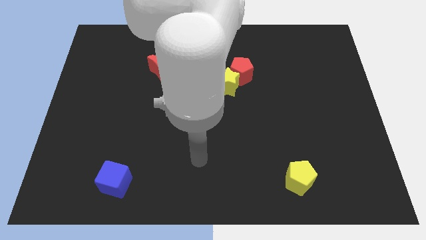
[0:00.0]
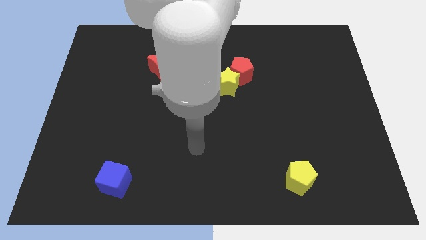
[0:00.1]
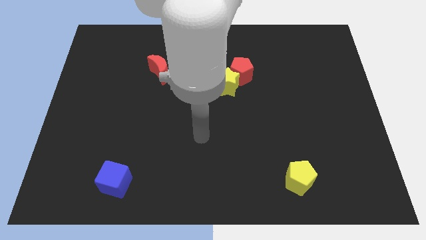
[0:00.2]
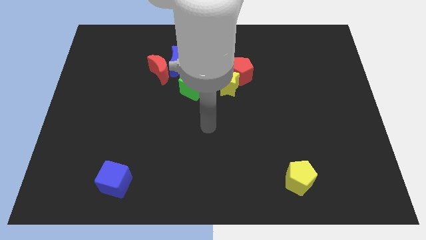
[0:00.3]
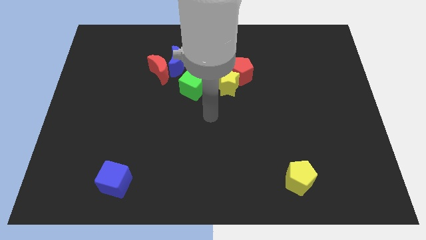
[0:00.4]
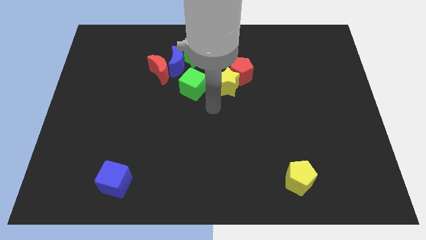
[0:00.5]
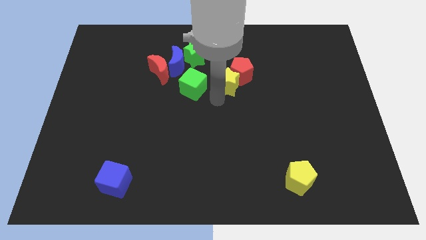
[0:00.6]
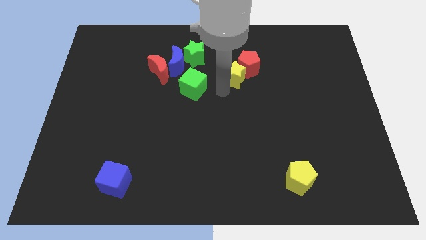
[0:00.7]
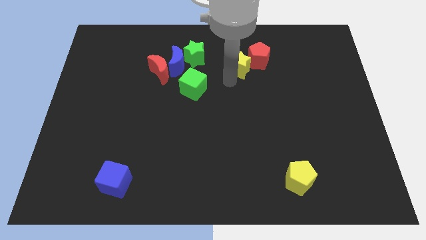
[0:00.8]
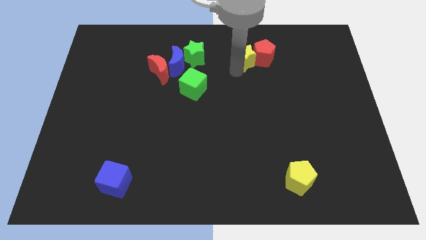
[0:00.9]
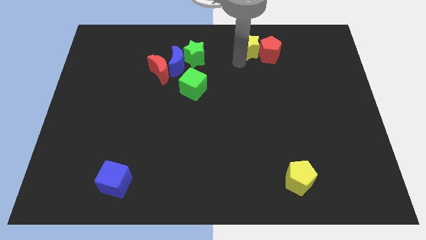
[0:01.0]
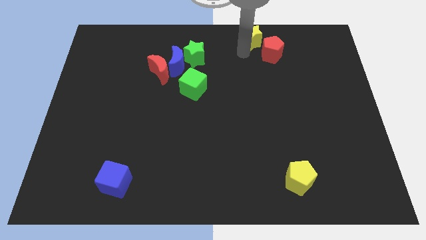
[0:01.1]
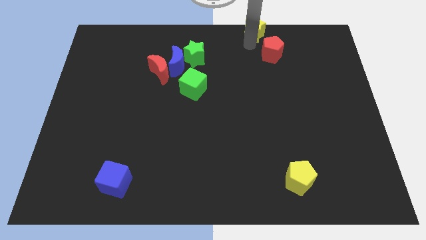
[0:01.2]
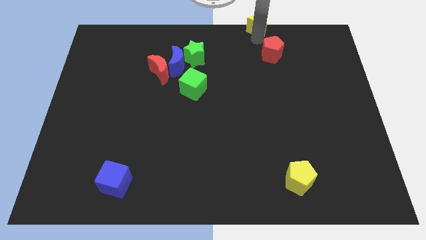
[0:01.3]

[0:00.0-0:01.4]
separate the red pentagon from the yellow star

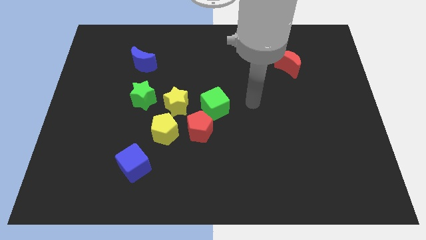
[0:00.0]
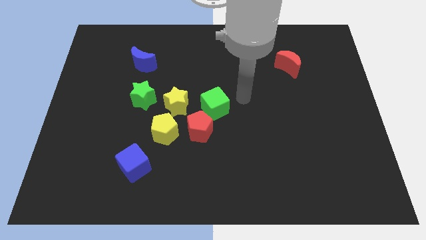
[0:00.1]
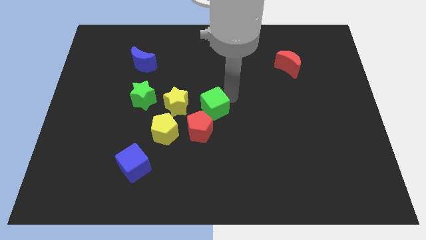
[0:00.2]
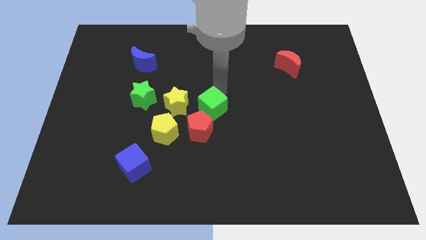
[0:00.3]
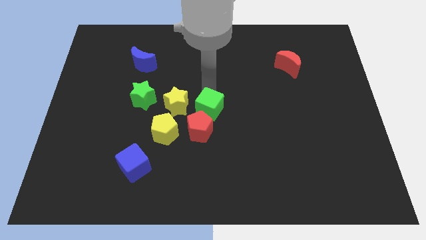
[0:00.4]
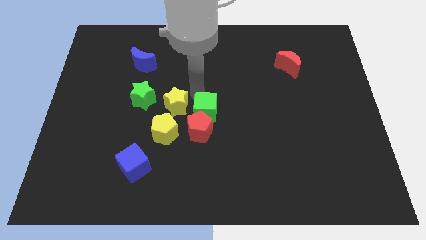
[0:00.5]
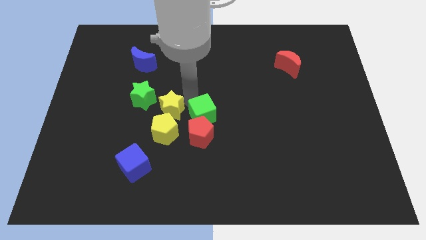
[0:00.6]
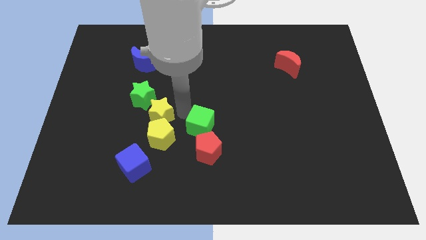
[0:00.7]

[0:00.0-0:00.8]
pull the red pentagon apart from the group of blocks

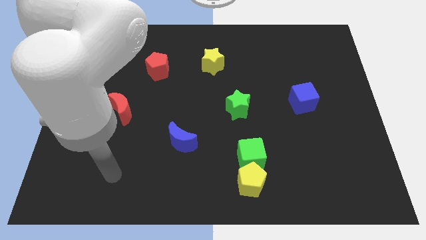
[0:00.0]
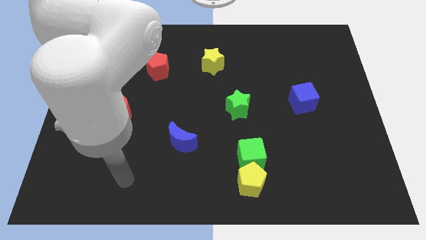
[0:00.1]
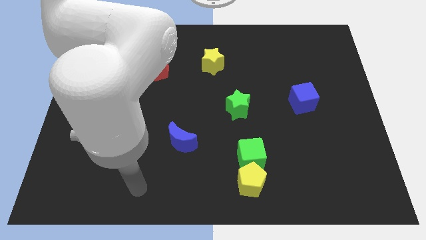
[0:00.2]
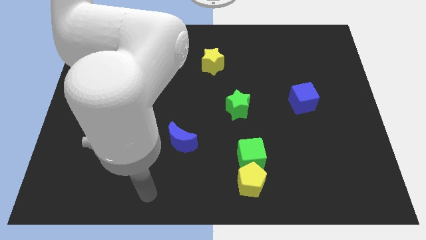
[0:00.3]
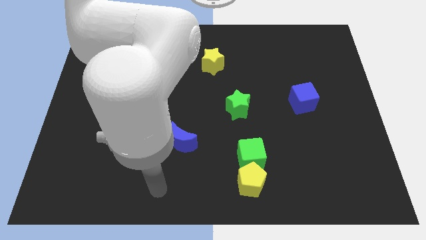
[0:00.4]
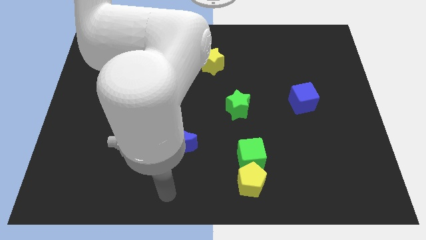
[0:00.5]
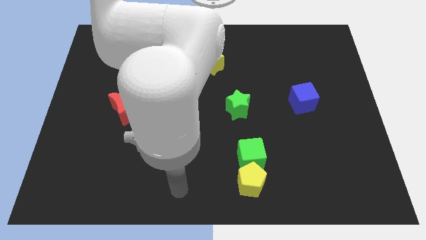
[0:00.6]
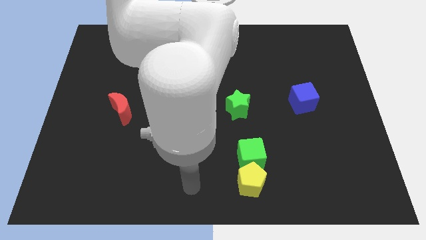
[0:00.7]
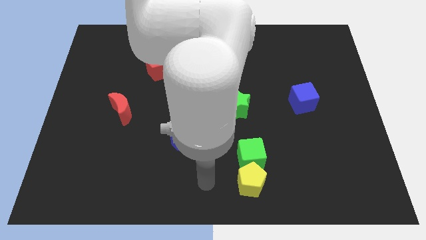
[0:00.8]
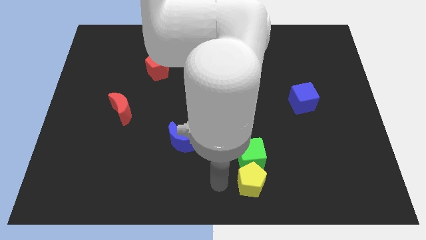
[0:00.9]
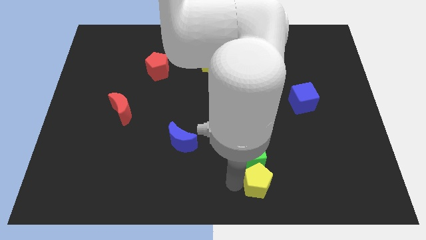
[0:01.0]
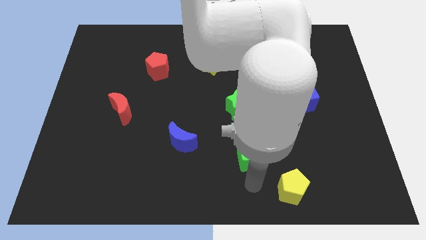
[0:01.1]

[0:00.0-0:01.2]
pull the green cube apart from the yellow pentagon

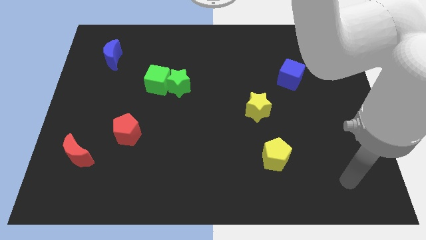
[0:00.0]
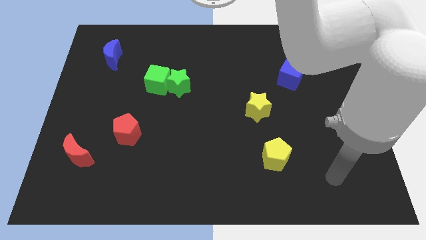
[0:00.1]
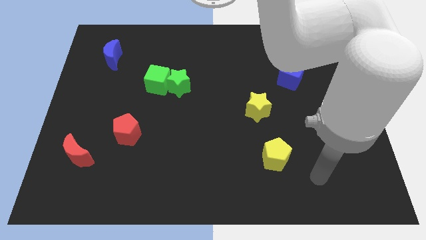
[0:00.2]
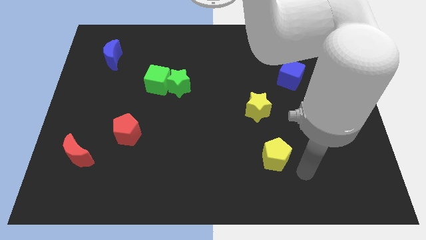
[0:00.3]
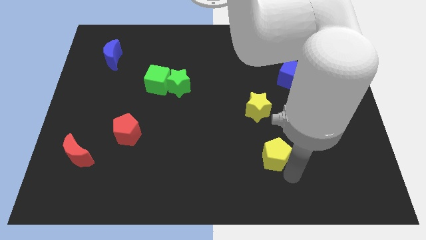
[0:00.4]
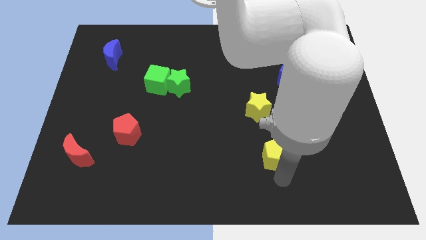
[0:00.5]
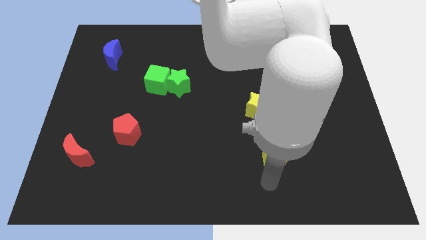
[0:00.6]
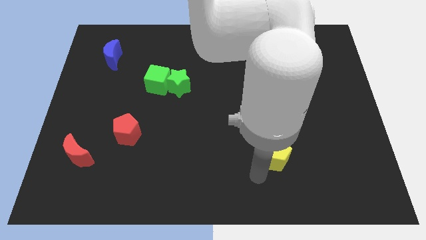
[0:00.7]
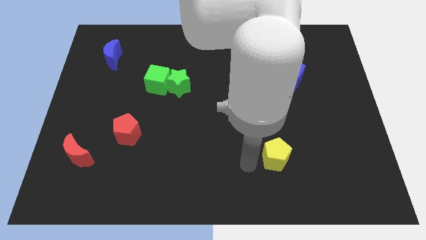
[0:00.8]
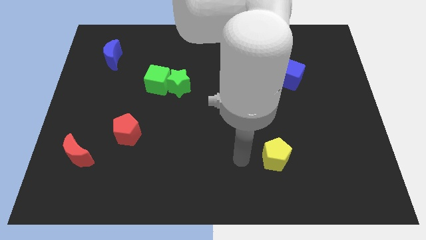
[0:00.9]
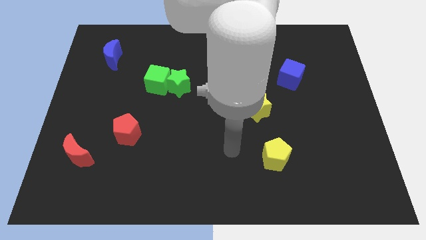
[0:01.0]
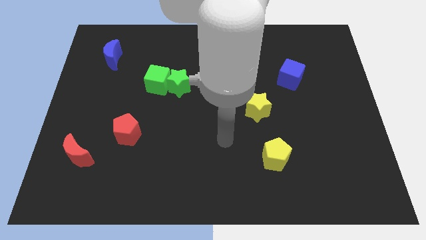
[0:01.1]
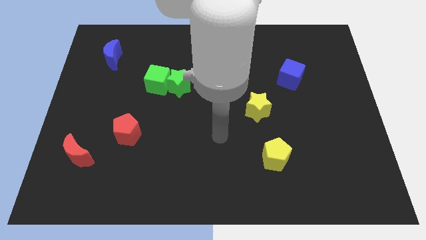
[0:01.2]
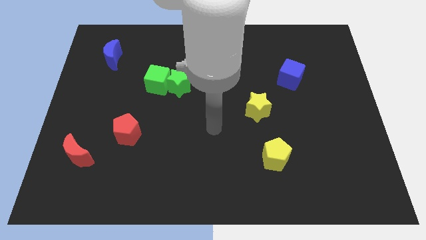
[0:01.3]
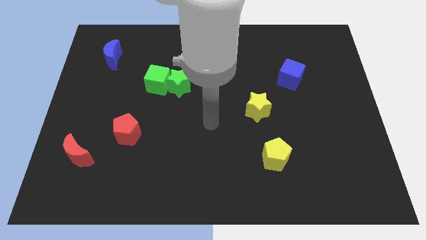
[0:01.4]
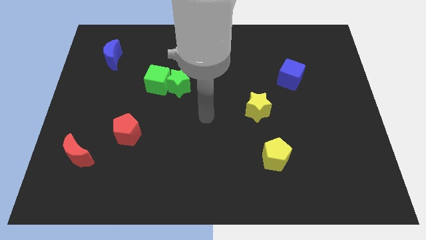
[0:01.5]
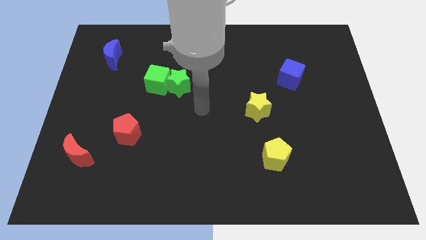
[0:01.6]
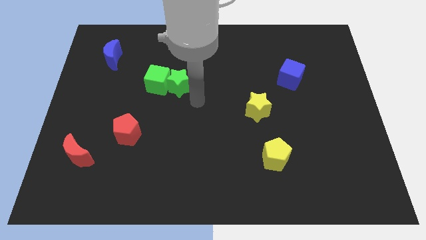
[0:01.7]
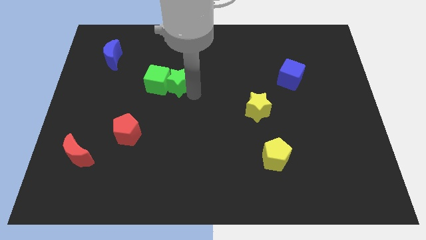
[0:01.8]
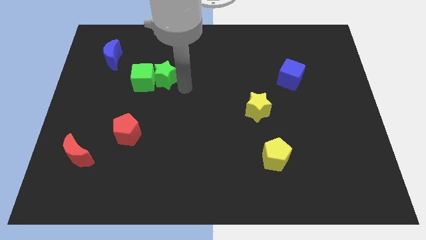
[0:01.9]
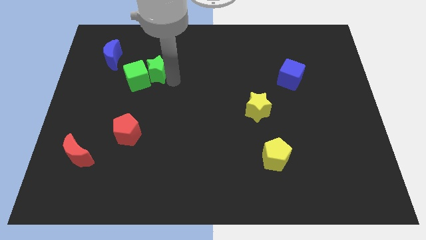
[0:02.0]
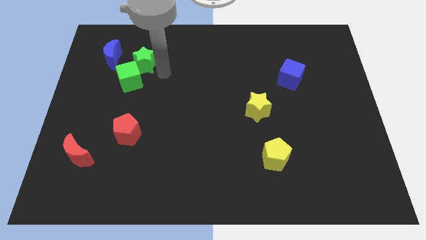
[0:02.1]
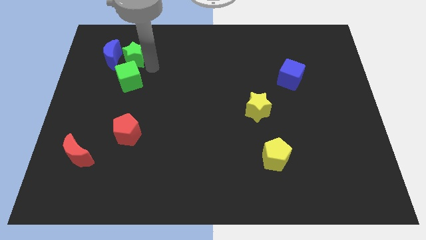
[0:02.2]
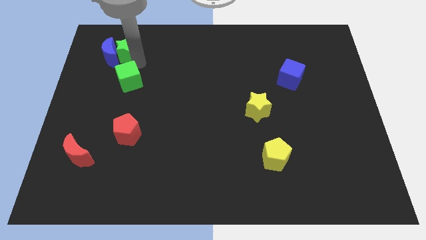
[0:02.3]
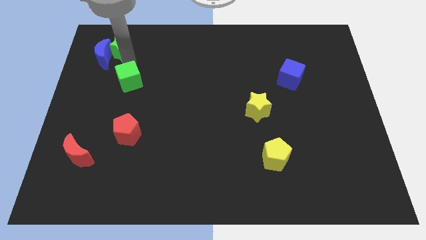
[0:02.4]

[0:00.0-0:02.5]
separate the green cube from the green star

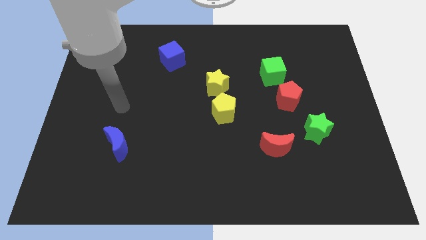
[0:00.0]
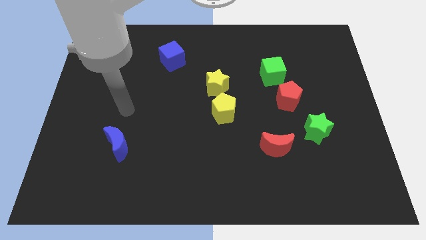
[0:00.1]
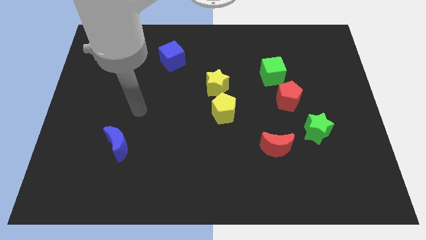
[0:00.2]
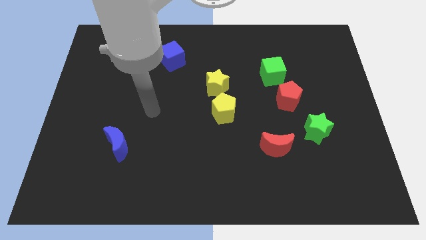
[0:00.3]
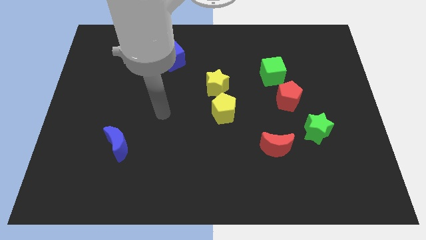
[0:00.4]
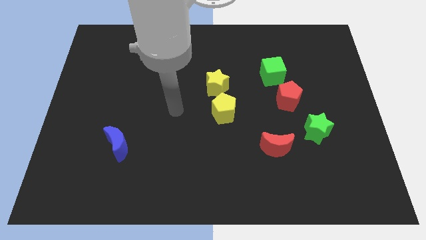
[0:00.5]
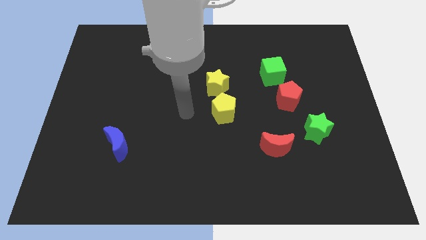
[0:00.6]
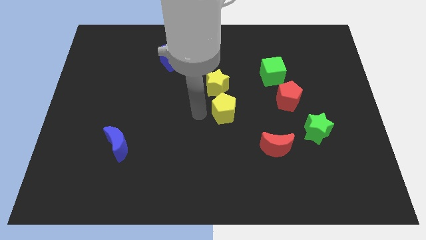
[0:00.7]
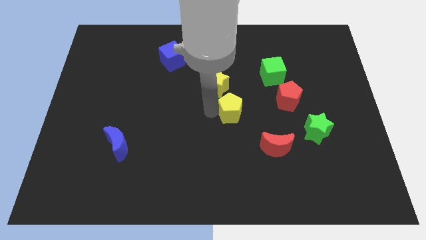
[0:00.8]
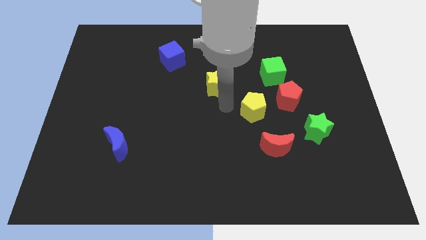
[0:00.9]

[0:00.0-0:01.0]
move the yellow star away from the yellow pentagon

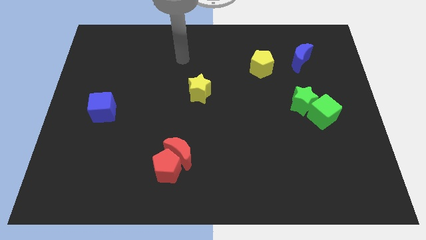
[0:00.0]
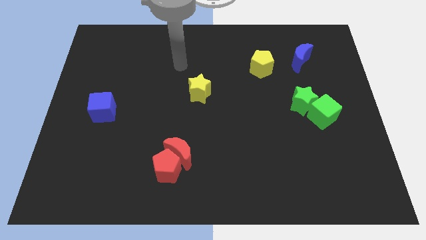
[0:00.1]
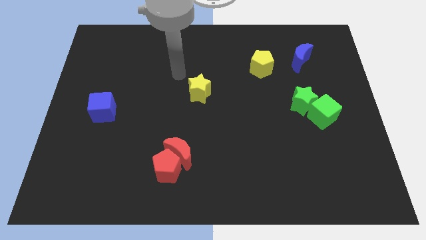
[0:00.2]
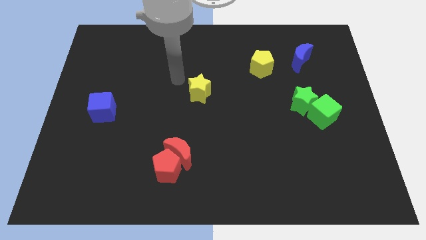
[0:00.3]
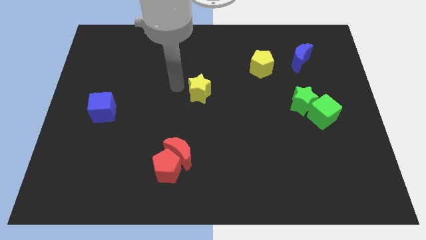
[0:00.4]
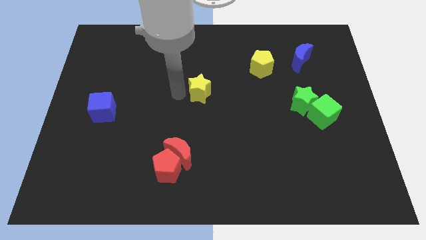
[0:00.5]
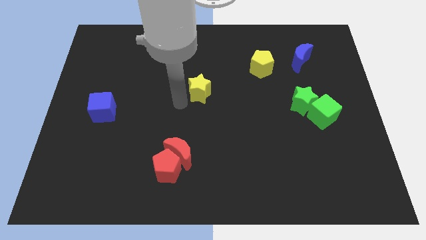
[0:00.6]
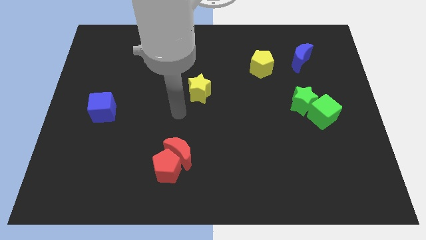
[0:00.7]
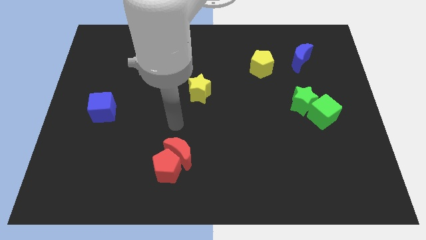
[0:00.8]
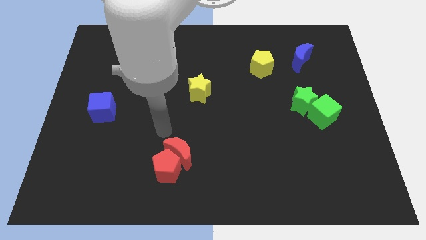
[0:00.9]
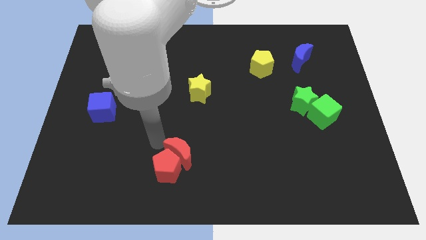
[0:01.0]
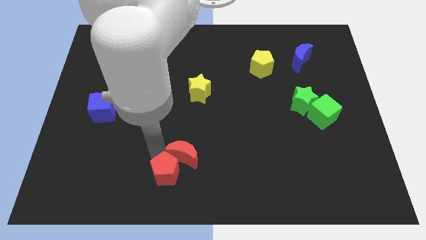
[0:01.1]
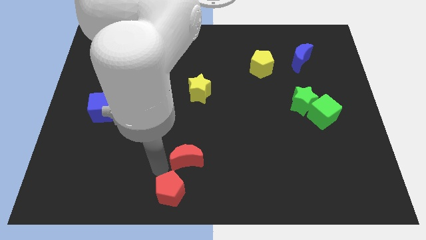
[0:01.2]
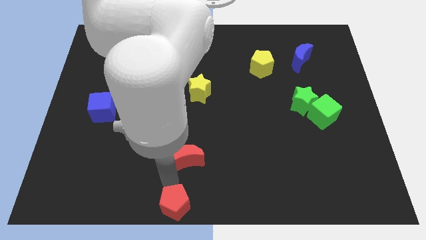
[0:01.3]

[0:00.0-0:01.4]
move the red moon away from the red pentagon

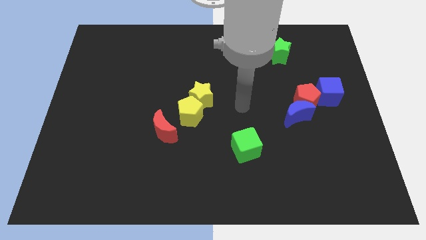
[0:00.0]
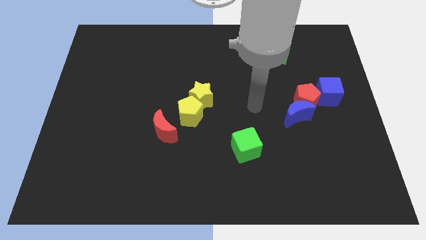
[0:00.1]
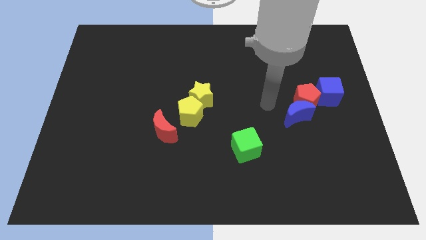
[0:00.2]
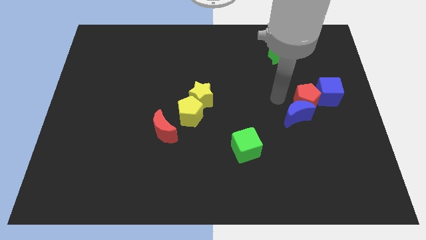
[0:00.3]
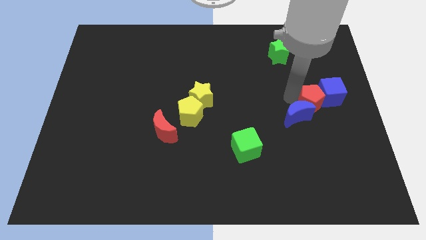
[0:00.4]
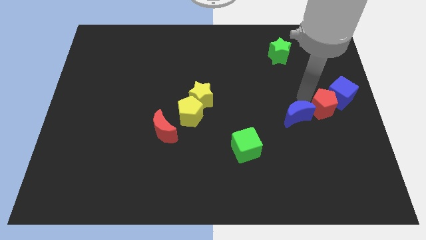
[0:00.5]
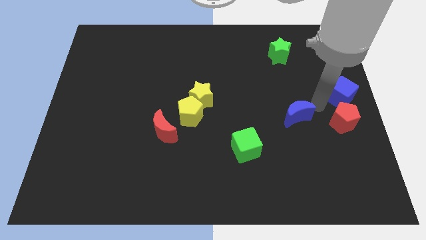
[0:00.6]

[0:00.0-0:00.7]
separate the blue moon from the red pentagon

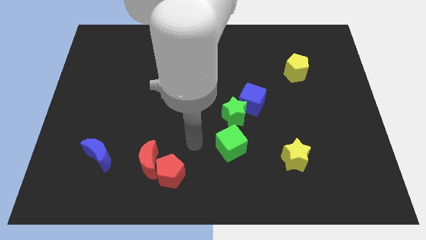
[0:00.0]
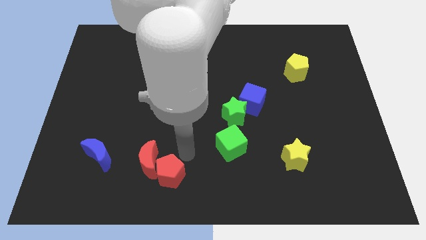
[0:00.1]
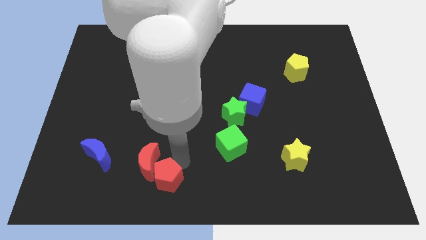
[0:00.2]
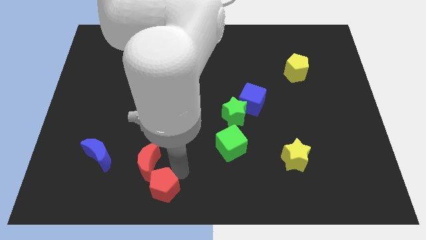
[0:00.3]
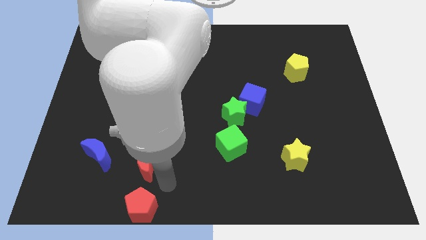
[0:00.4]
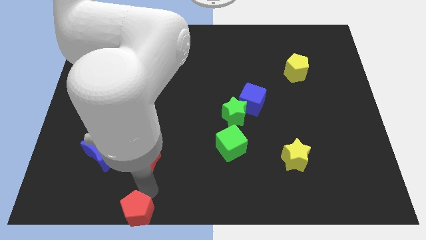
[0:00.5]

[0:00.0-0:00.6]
separate the red moon from the red pentagon
